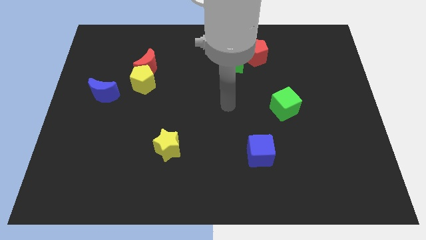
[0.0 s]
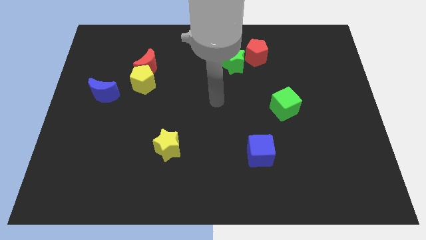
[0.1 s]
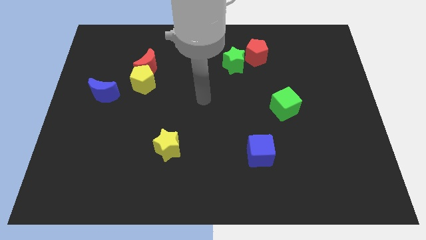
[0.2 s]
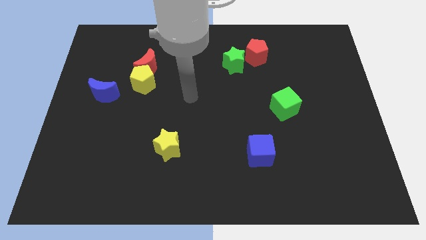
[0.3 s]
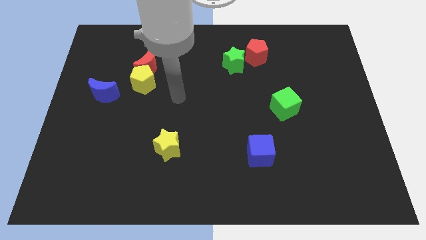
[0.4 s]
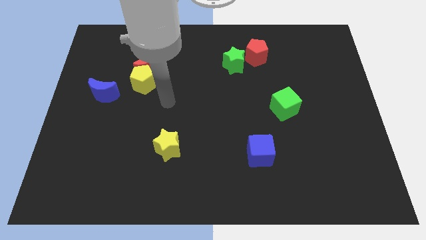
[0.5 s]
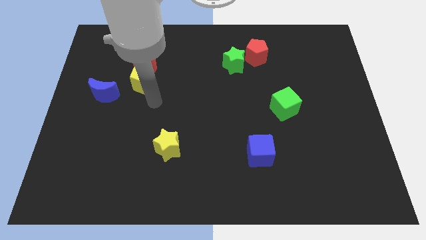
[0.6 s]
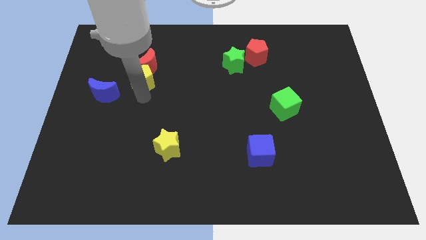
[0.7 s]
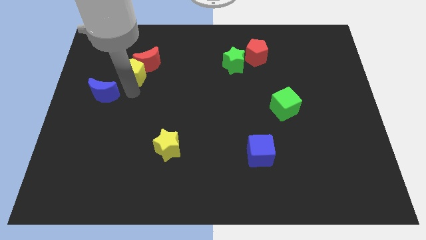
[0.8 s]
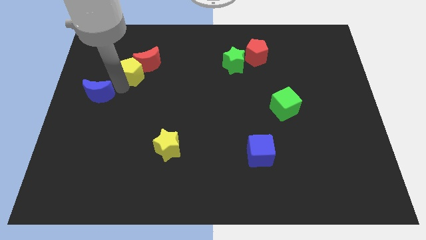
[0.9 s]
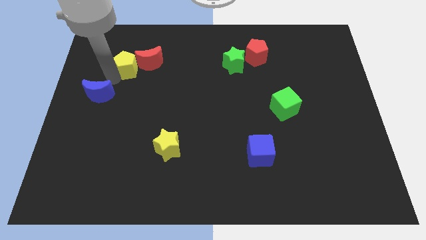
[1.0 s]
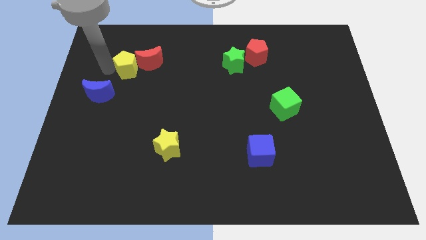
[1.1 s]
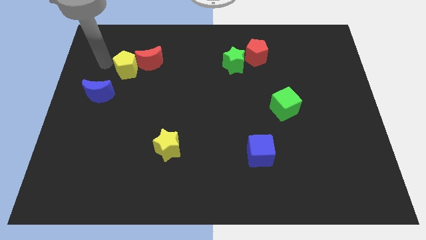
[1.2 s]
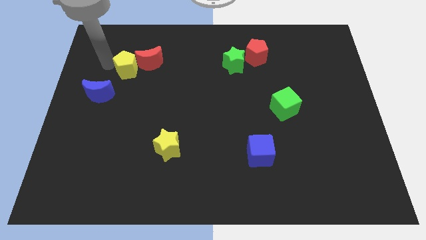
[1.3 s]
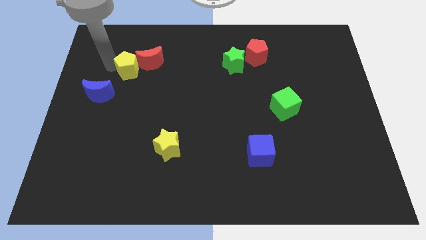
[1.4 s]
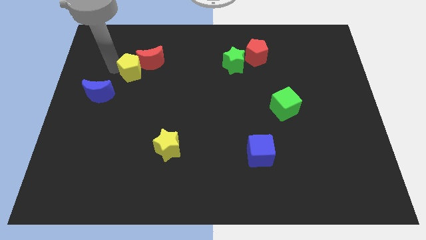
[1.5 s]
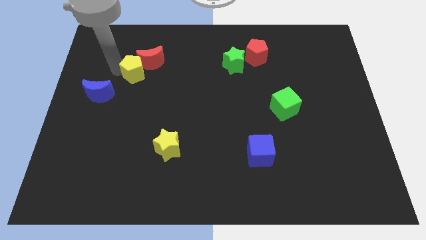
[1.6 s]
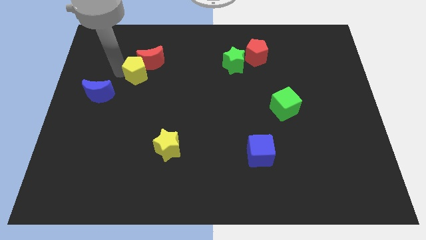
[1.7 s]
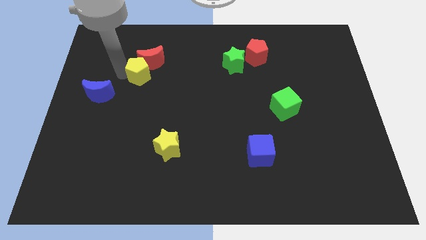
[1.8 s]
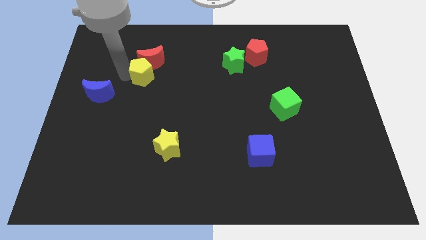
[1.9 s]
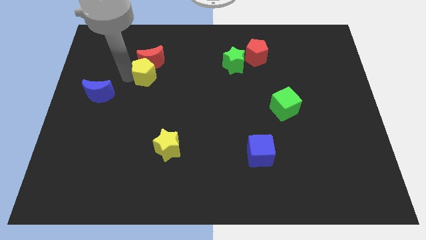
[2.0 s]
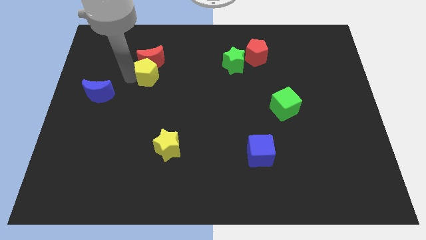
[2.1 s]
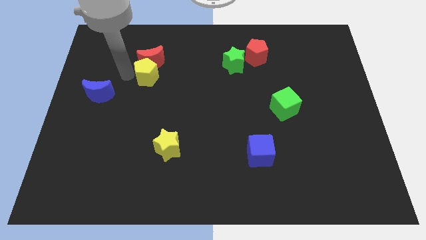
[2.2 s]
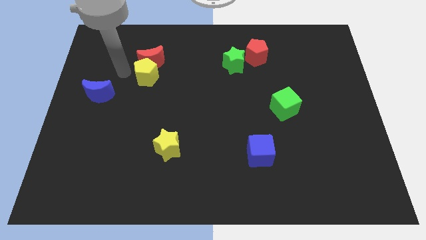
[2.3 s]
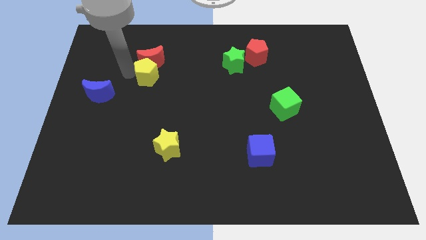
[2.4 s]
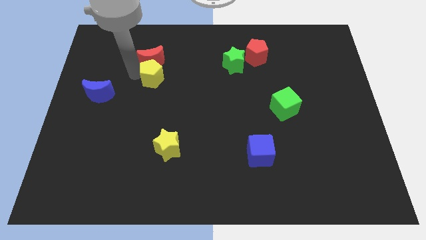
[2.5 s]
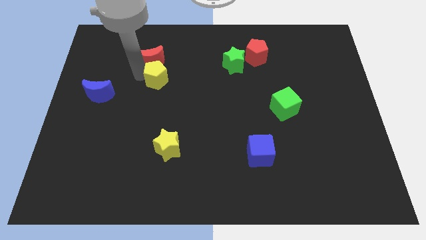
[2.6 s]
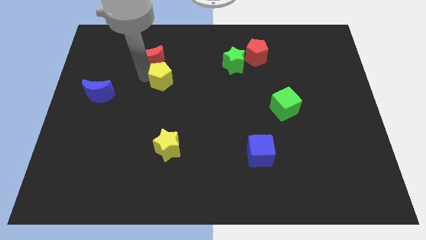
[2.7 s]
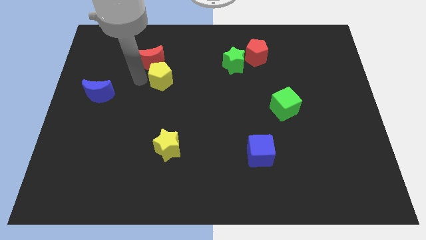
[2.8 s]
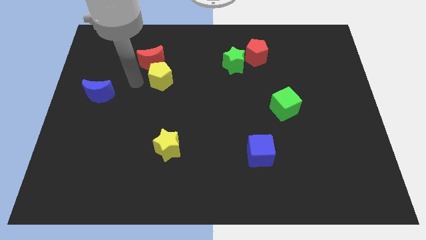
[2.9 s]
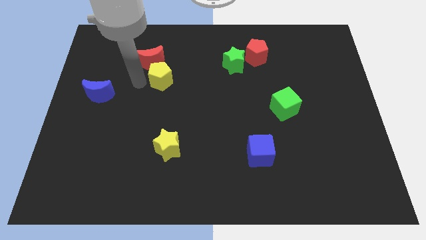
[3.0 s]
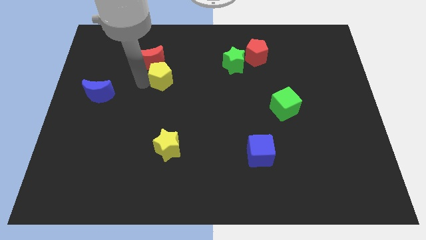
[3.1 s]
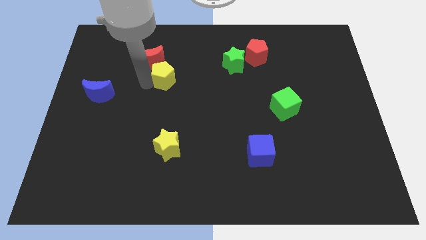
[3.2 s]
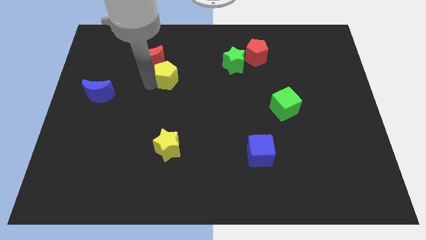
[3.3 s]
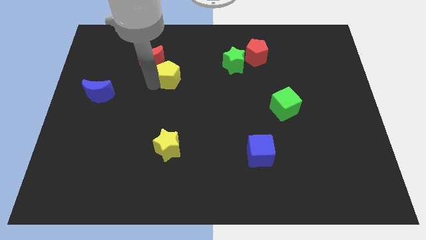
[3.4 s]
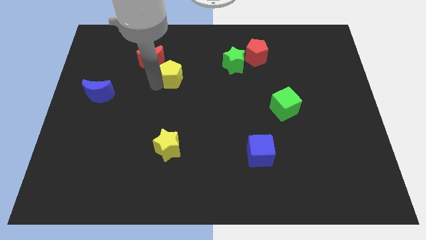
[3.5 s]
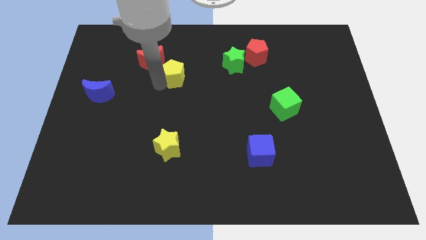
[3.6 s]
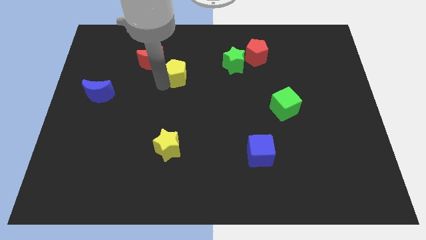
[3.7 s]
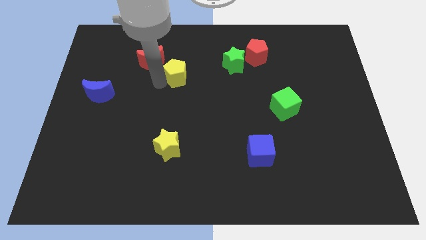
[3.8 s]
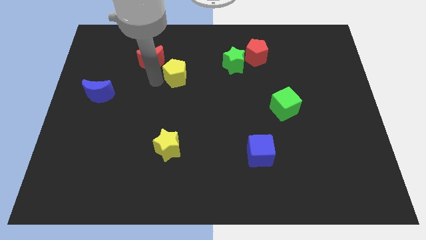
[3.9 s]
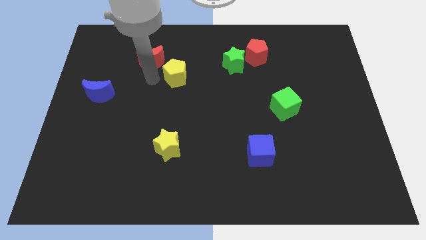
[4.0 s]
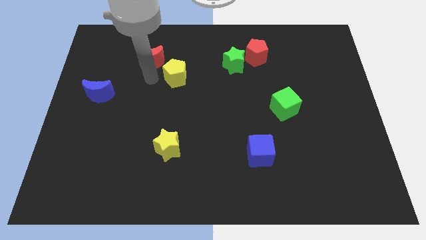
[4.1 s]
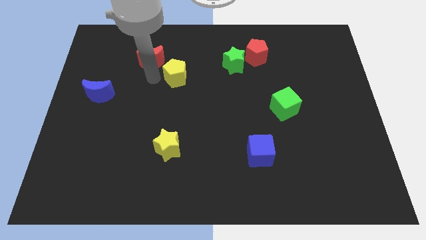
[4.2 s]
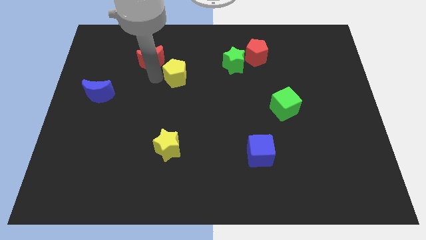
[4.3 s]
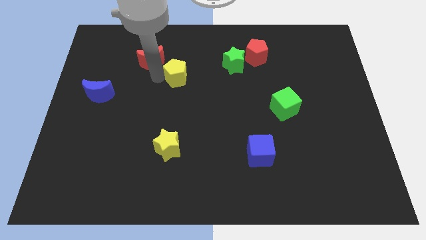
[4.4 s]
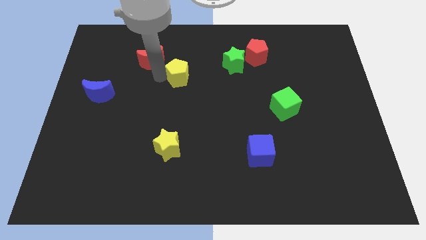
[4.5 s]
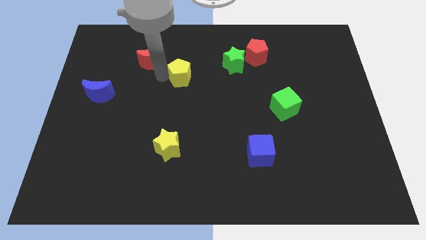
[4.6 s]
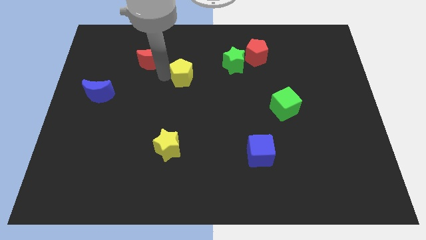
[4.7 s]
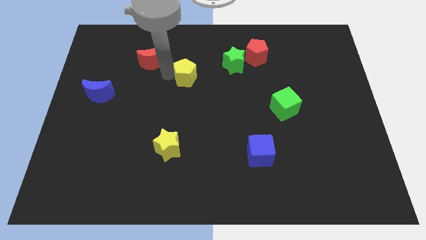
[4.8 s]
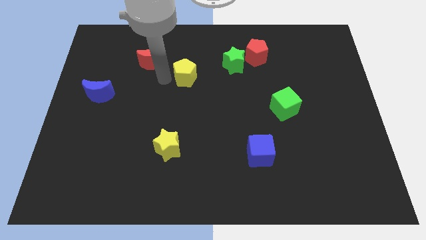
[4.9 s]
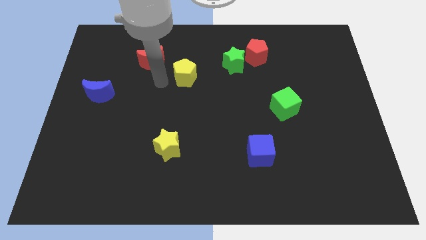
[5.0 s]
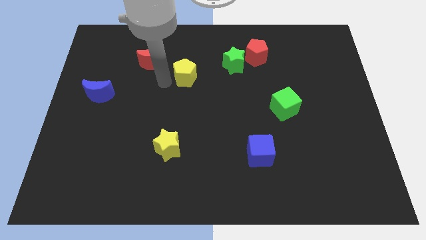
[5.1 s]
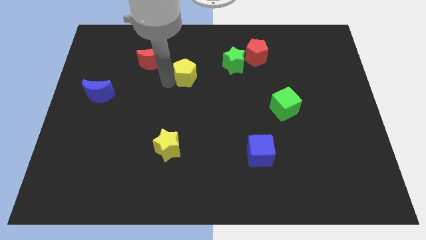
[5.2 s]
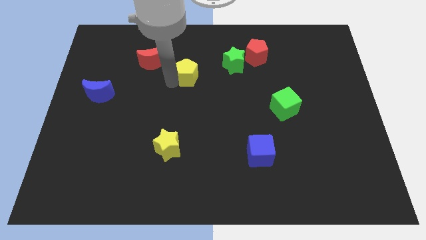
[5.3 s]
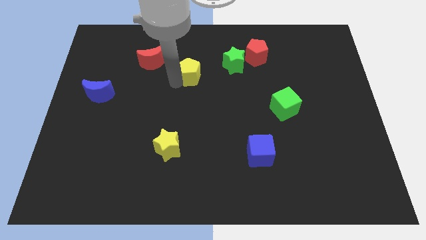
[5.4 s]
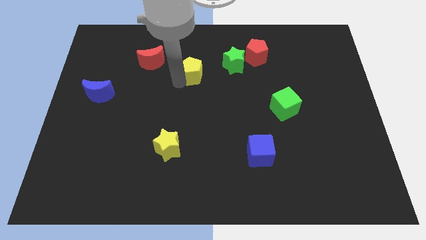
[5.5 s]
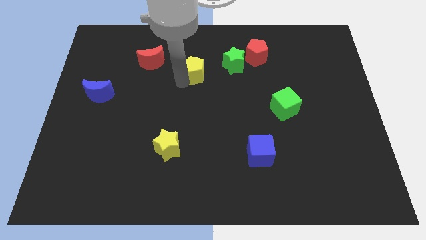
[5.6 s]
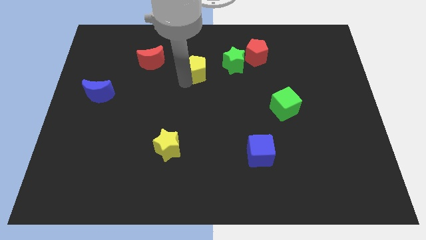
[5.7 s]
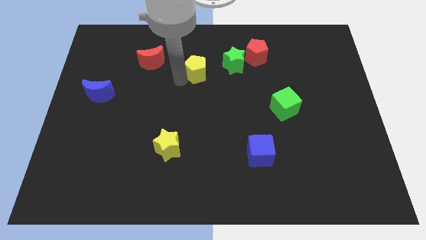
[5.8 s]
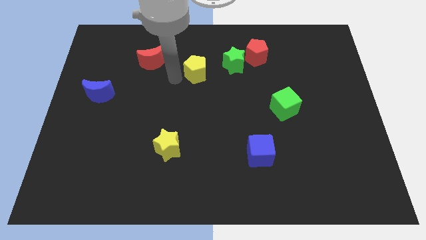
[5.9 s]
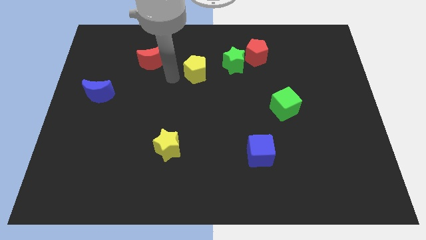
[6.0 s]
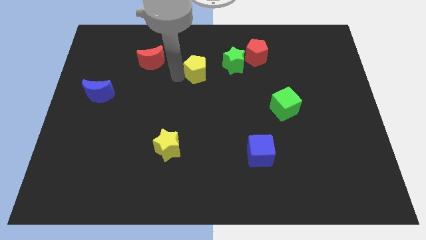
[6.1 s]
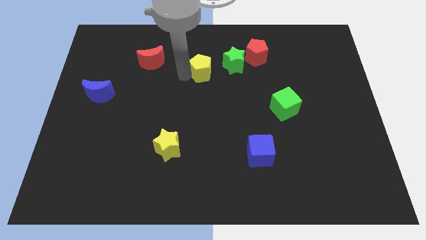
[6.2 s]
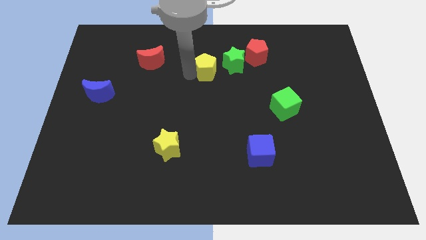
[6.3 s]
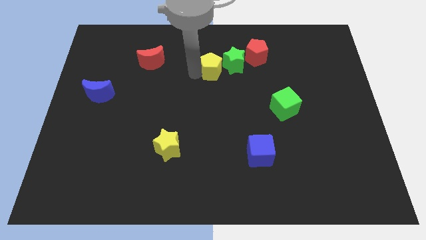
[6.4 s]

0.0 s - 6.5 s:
put the yellow pentagon towards the green star

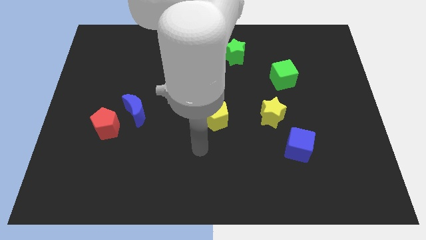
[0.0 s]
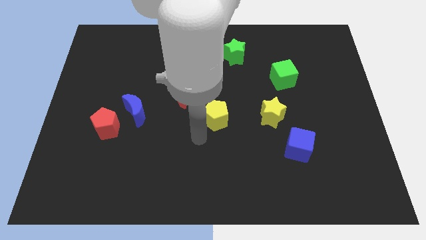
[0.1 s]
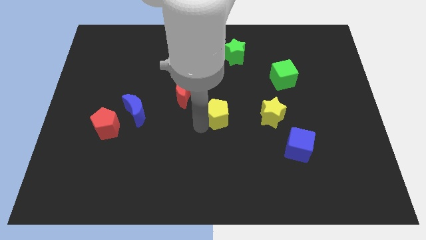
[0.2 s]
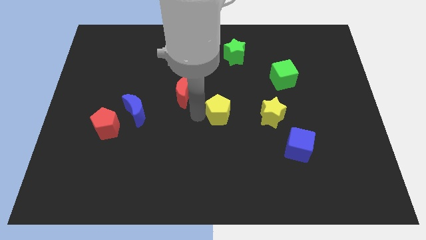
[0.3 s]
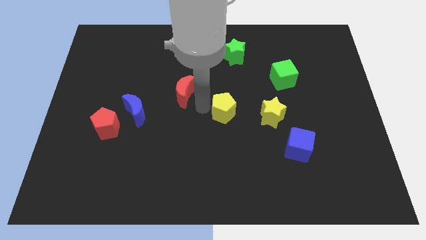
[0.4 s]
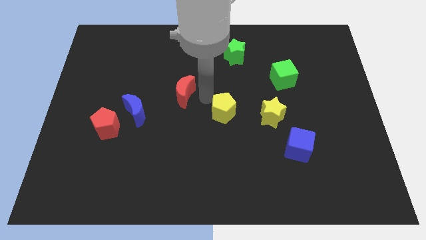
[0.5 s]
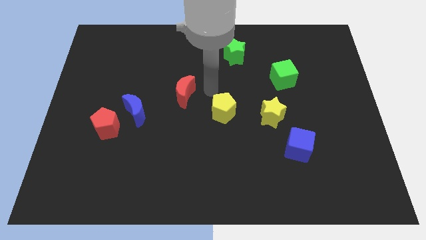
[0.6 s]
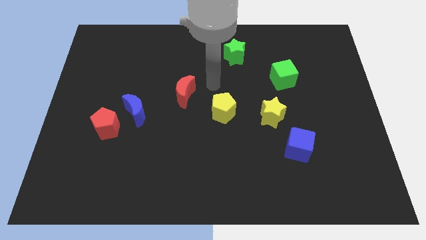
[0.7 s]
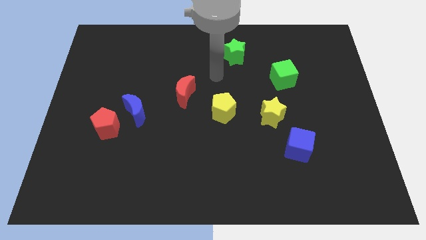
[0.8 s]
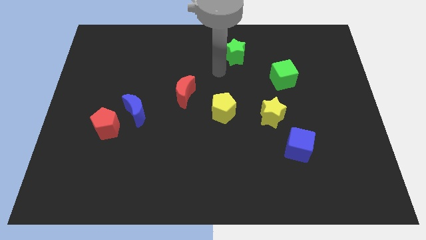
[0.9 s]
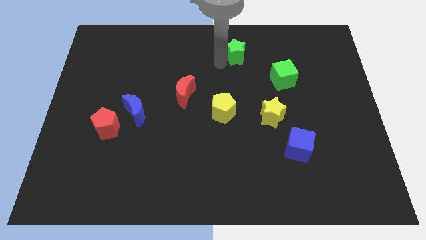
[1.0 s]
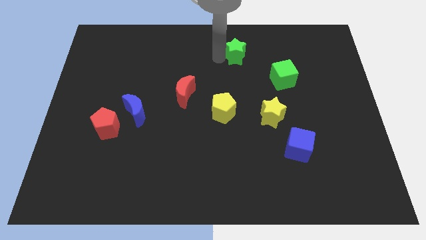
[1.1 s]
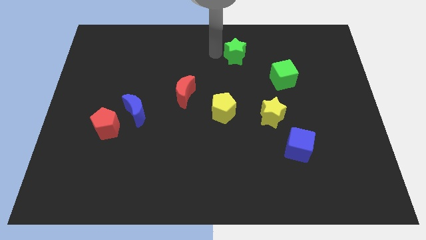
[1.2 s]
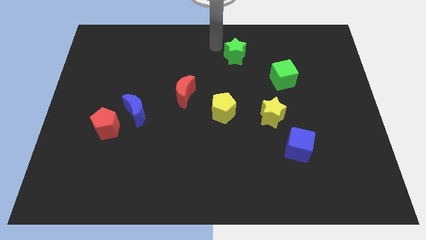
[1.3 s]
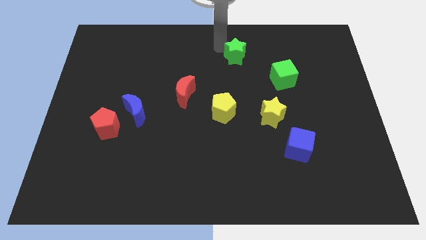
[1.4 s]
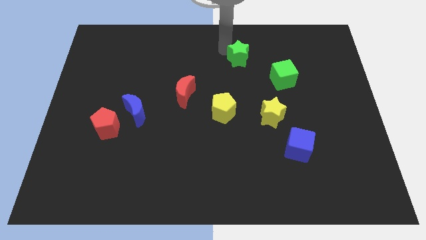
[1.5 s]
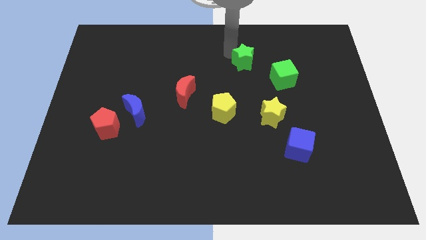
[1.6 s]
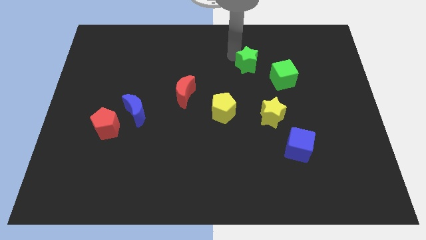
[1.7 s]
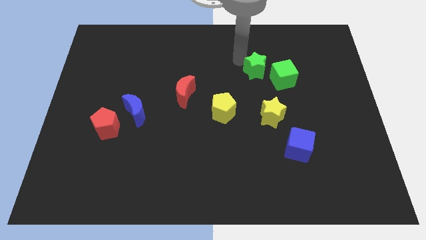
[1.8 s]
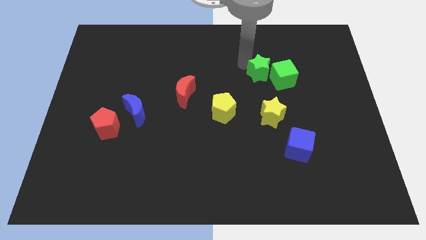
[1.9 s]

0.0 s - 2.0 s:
move the green star next to the green cube
